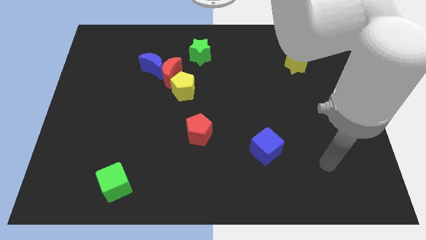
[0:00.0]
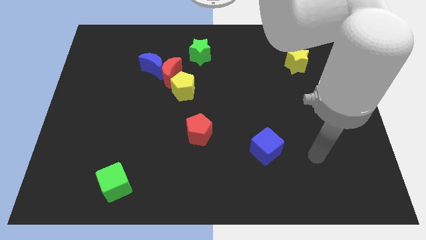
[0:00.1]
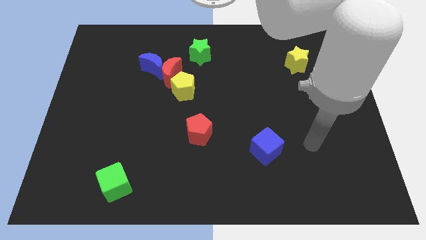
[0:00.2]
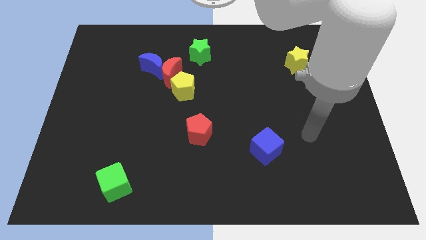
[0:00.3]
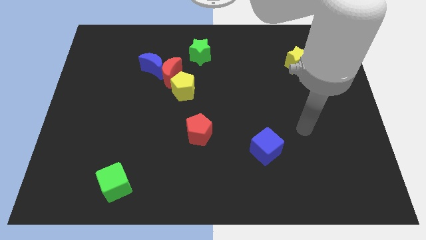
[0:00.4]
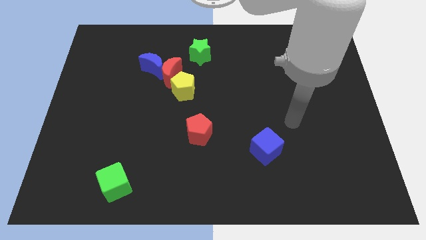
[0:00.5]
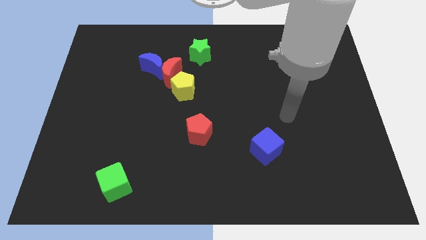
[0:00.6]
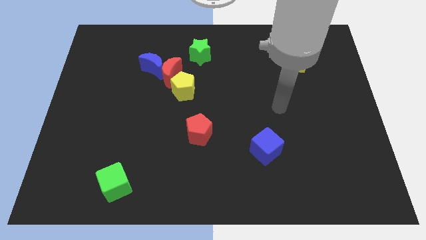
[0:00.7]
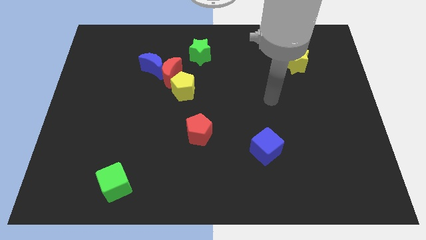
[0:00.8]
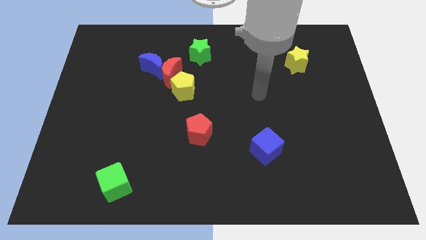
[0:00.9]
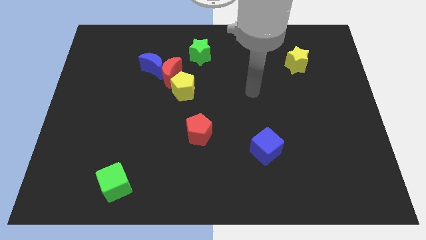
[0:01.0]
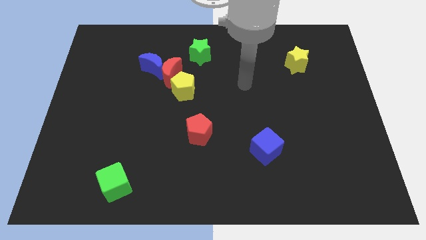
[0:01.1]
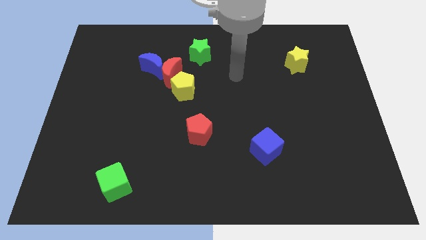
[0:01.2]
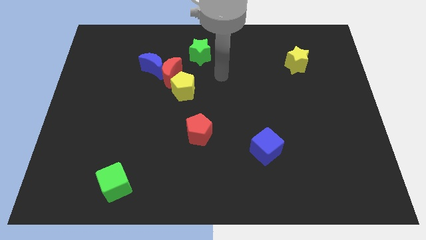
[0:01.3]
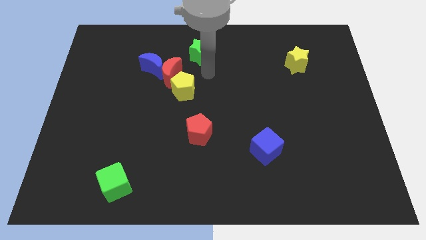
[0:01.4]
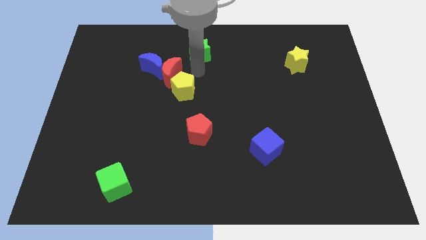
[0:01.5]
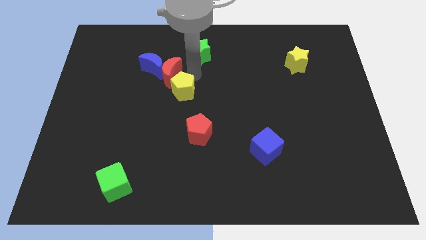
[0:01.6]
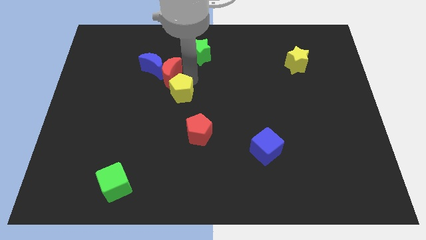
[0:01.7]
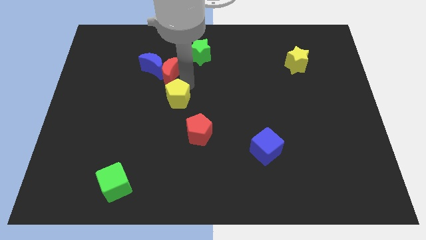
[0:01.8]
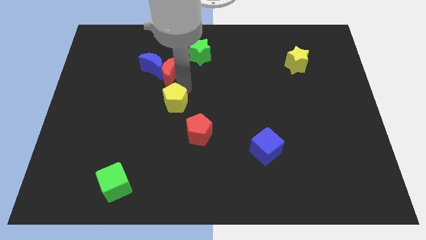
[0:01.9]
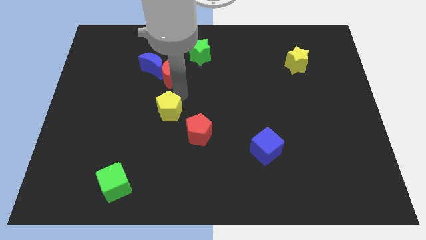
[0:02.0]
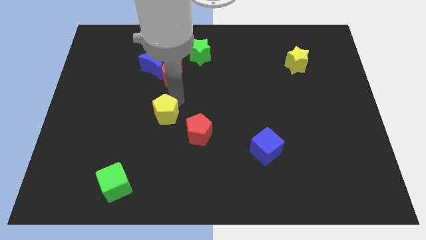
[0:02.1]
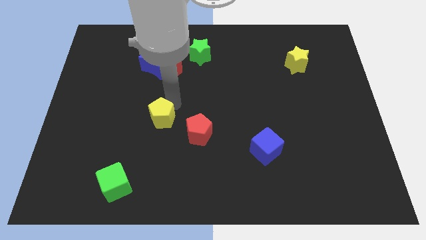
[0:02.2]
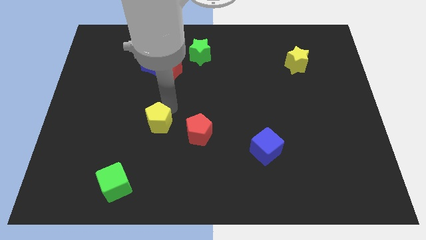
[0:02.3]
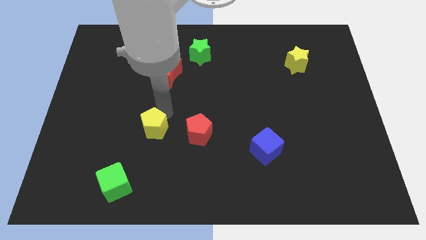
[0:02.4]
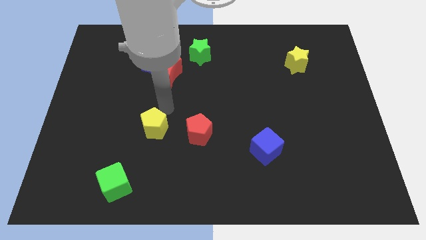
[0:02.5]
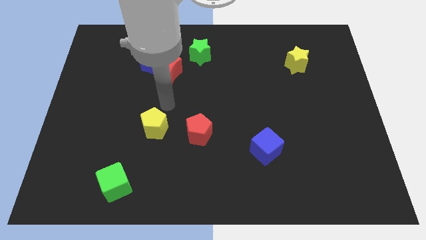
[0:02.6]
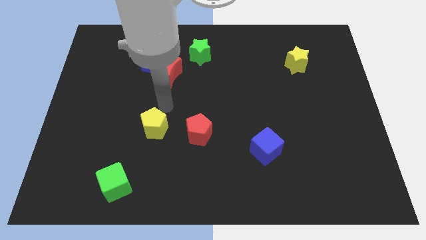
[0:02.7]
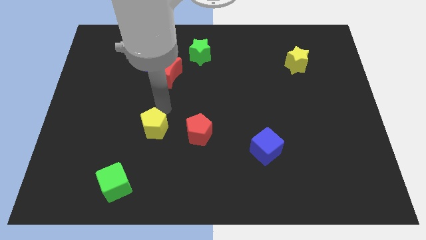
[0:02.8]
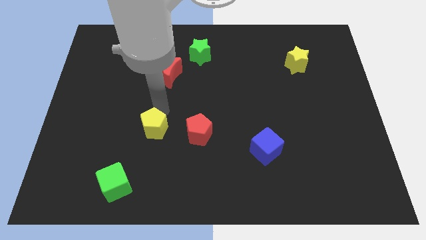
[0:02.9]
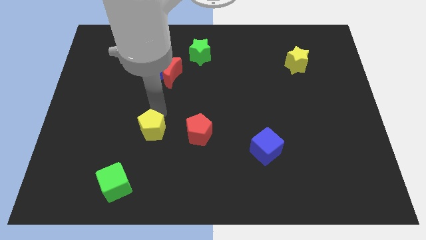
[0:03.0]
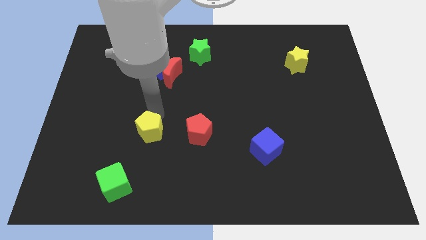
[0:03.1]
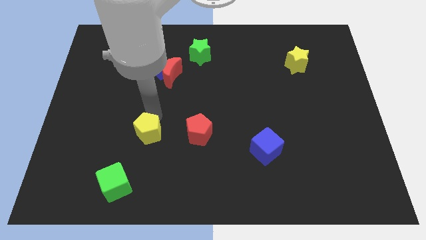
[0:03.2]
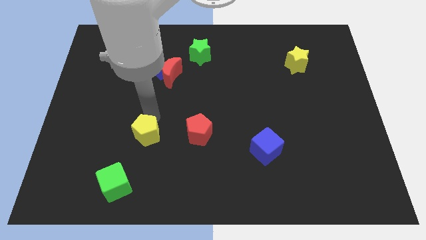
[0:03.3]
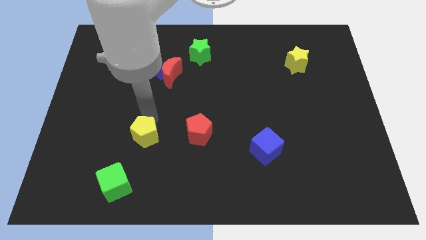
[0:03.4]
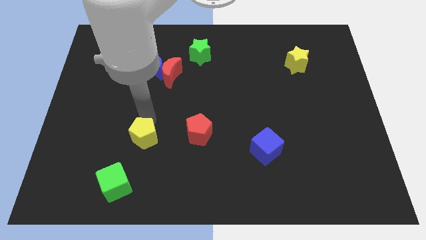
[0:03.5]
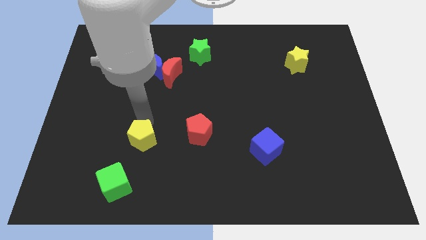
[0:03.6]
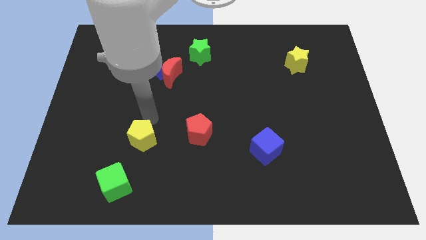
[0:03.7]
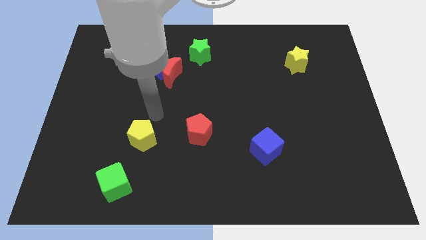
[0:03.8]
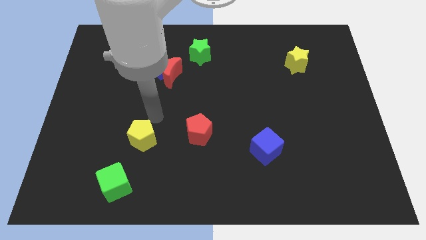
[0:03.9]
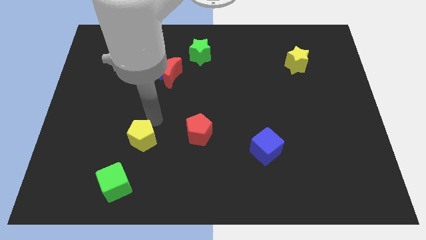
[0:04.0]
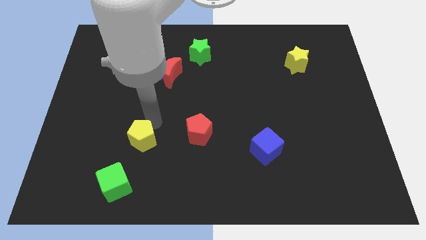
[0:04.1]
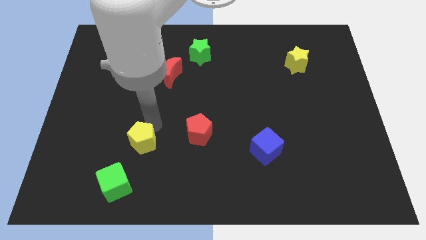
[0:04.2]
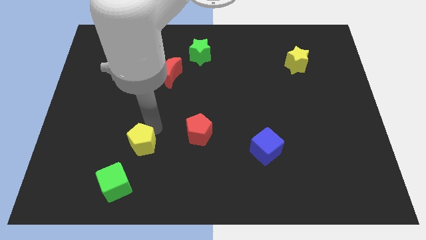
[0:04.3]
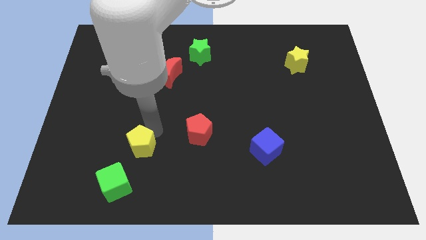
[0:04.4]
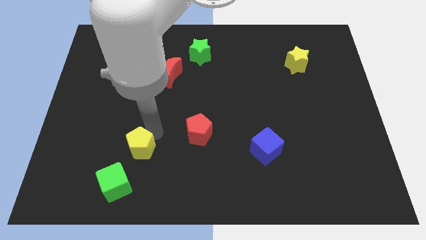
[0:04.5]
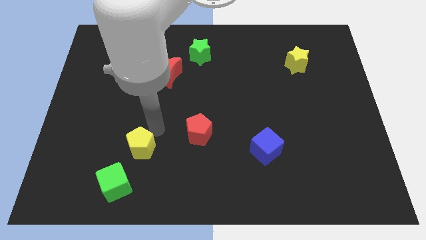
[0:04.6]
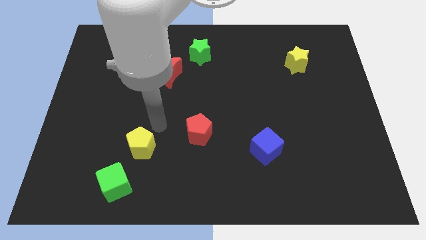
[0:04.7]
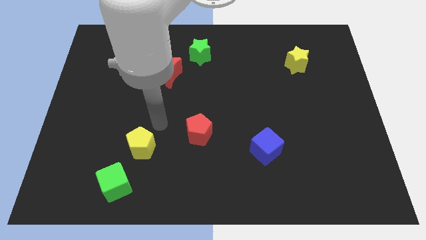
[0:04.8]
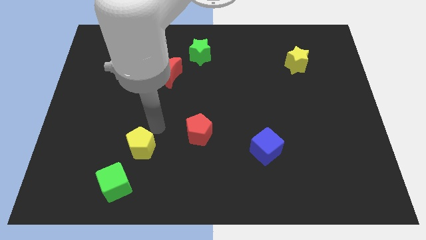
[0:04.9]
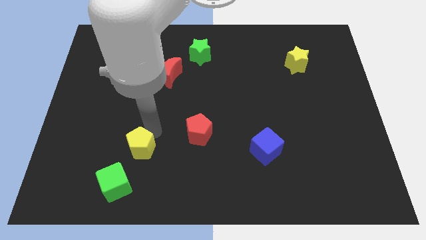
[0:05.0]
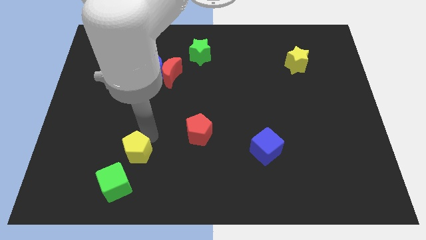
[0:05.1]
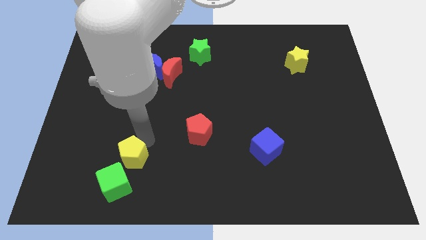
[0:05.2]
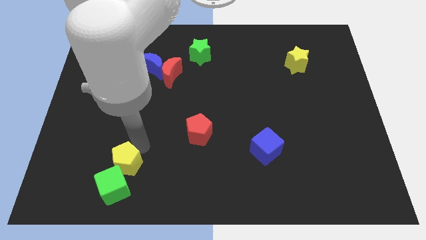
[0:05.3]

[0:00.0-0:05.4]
put the yellow pentagon close to the green cube

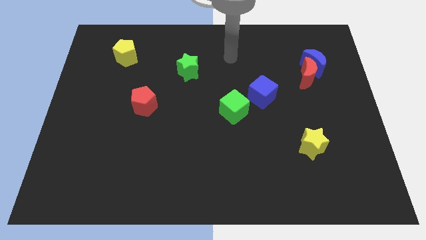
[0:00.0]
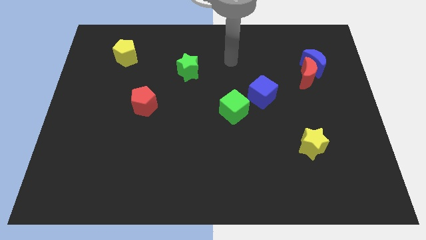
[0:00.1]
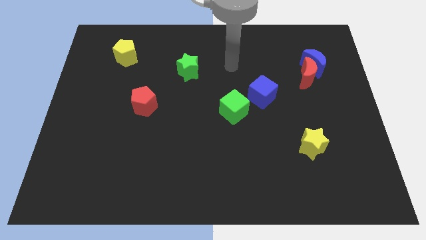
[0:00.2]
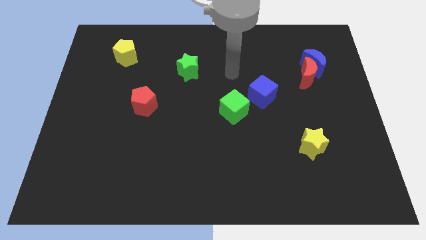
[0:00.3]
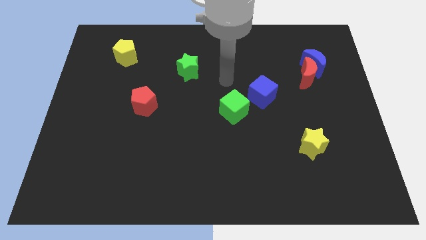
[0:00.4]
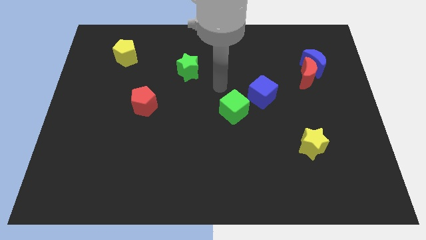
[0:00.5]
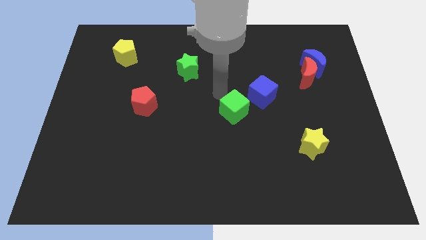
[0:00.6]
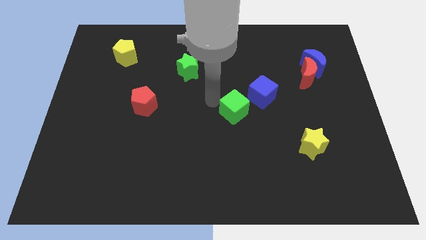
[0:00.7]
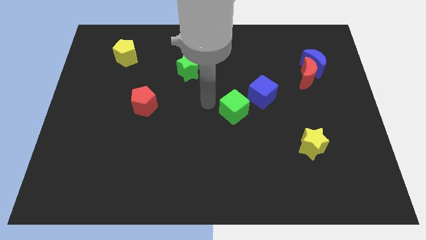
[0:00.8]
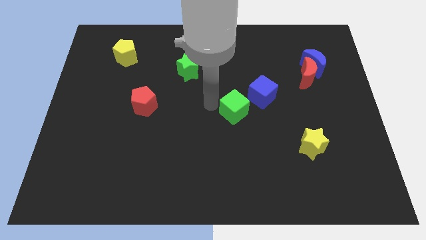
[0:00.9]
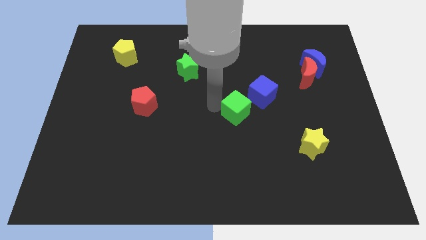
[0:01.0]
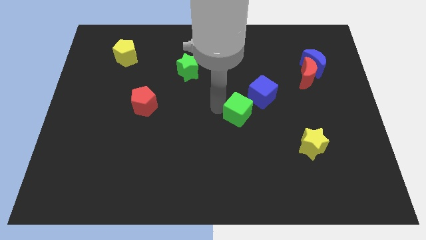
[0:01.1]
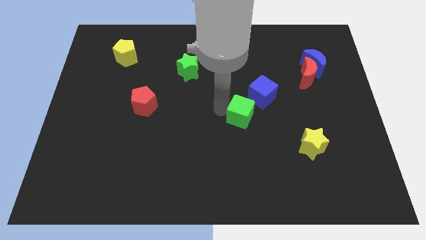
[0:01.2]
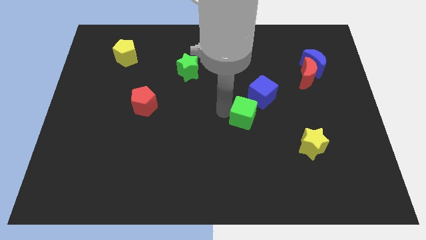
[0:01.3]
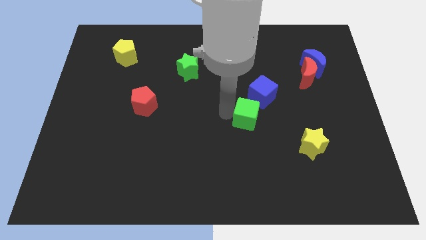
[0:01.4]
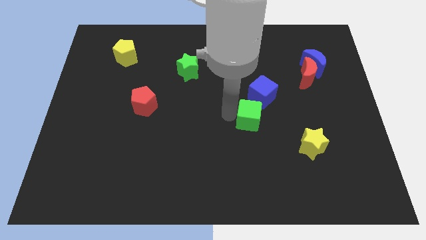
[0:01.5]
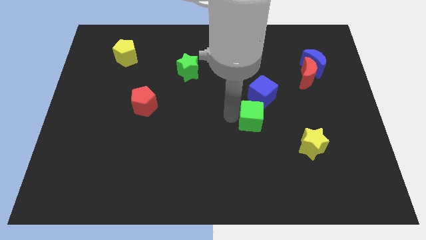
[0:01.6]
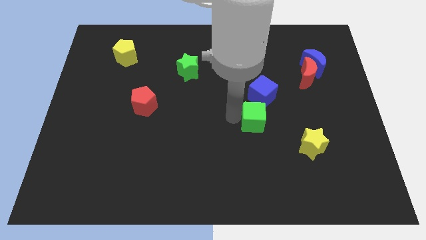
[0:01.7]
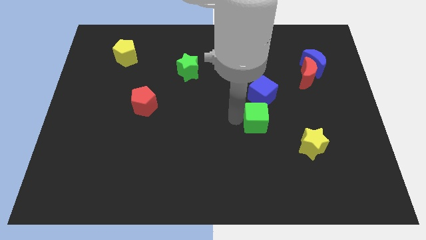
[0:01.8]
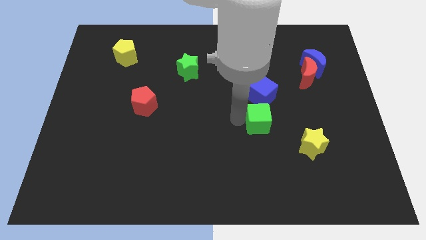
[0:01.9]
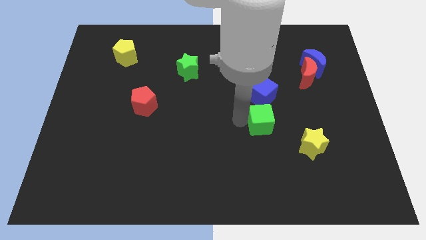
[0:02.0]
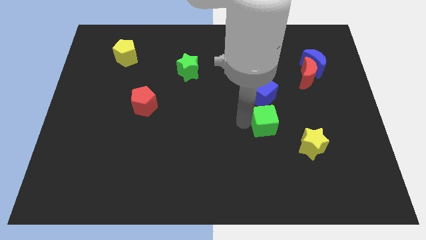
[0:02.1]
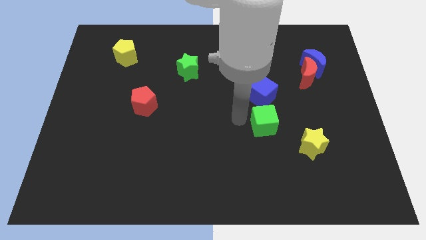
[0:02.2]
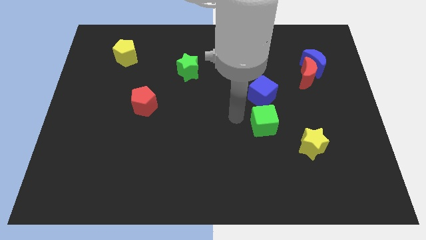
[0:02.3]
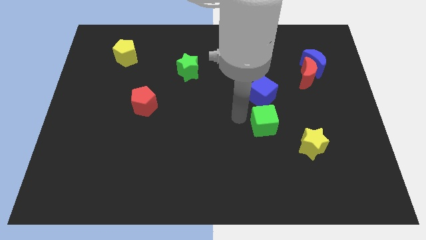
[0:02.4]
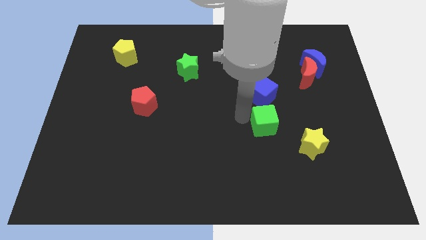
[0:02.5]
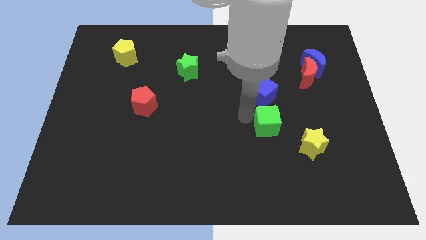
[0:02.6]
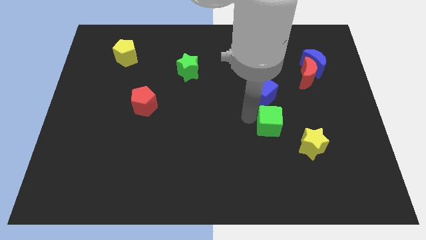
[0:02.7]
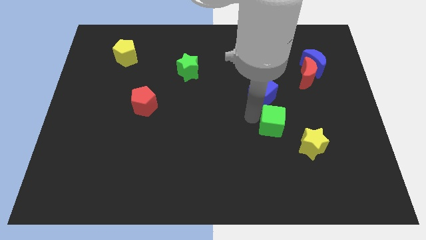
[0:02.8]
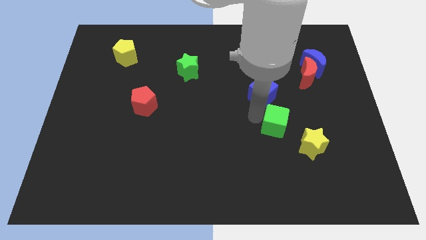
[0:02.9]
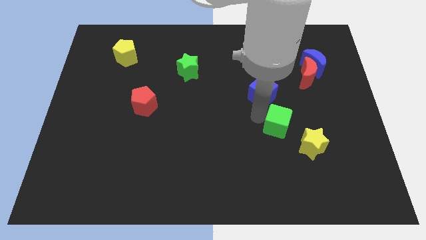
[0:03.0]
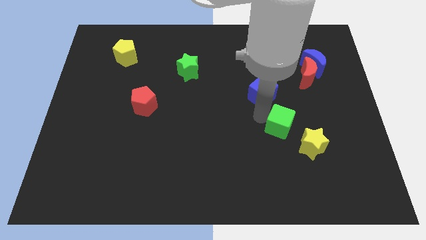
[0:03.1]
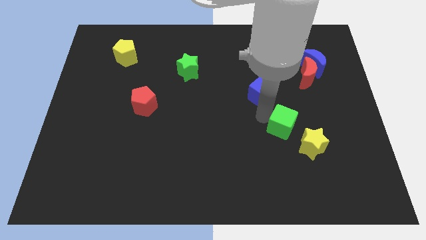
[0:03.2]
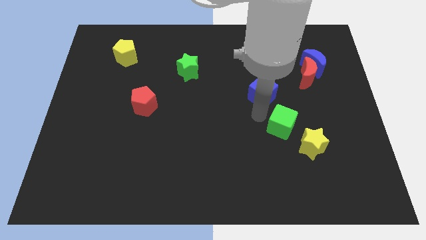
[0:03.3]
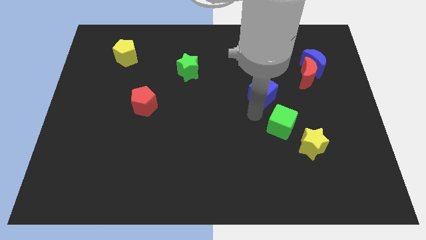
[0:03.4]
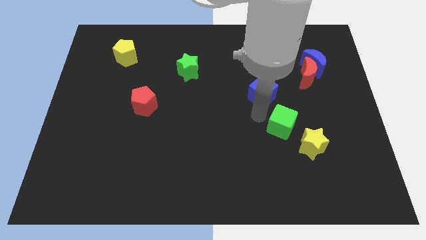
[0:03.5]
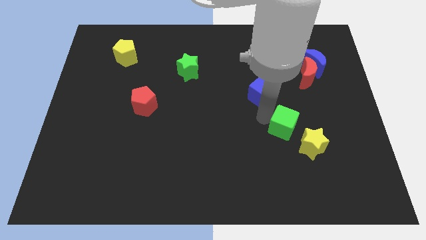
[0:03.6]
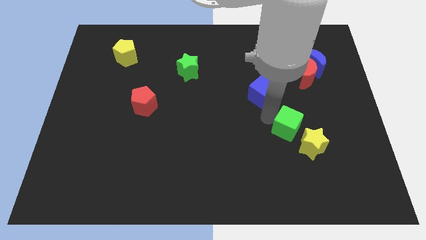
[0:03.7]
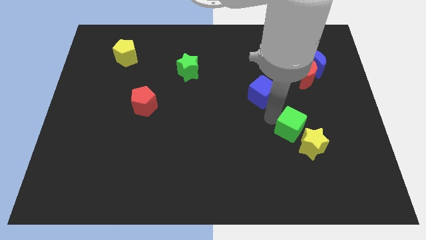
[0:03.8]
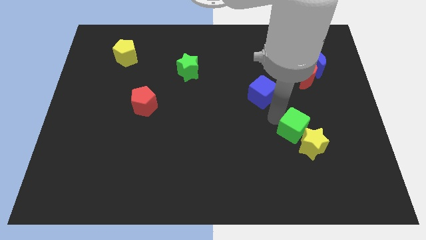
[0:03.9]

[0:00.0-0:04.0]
push the green cube to the yellow star
